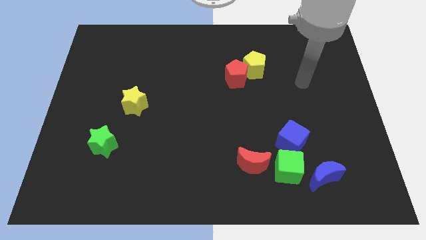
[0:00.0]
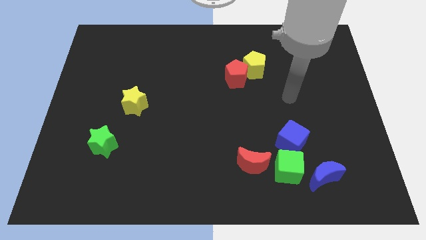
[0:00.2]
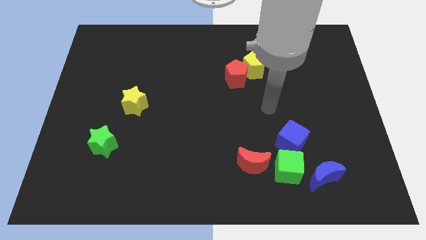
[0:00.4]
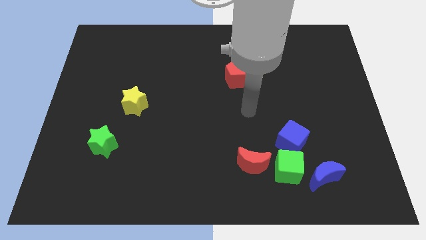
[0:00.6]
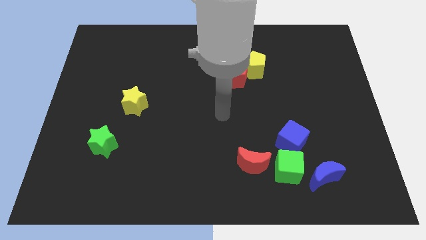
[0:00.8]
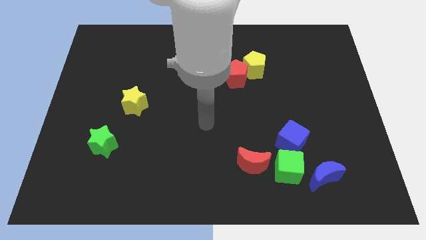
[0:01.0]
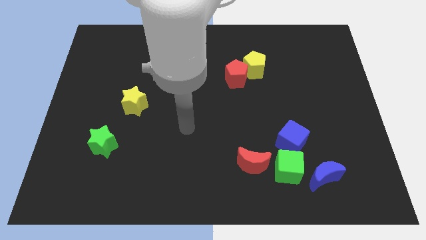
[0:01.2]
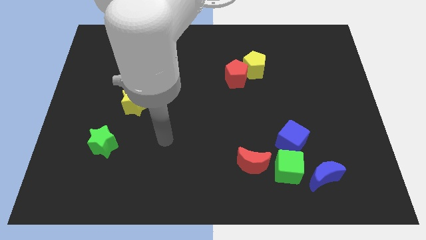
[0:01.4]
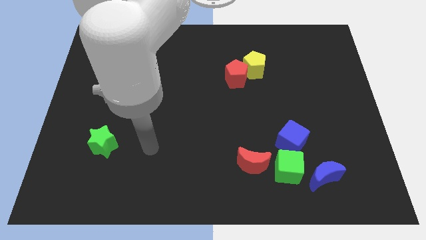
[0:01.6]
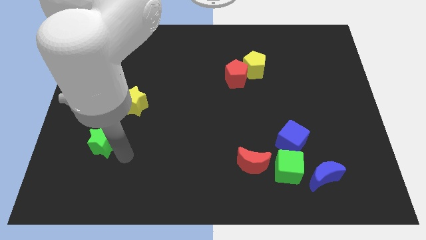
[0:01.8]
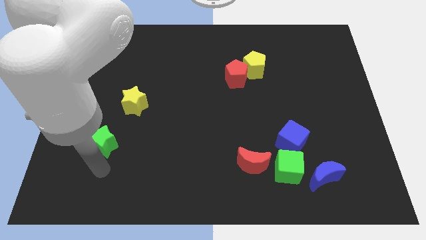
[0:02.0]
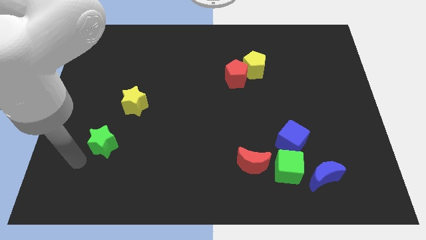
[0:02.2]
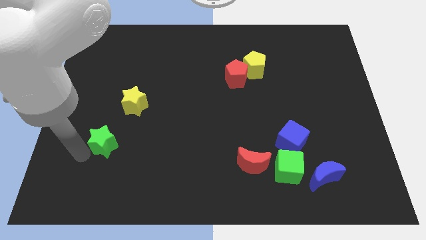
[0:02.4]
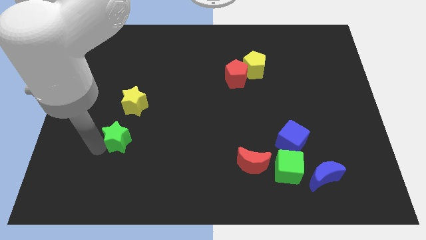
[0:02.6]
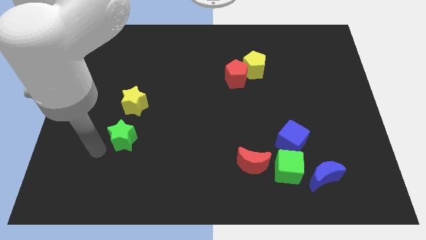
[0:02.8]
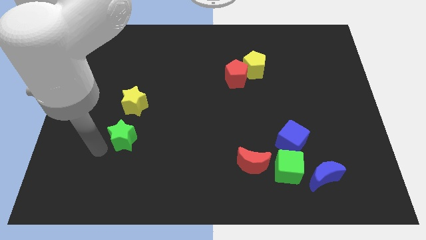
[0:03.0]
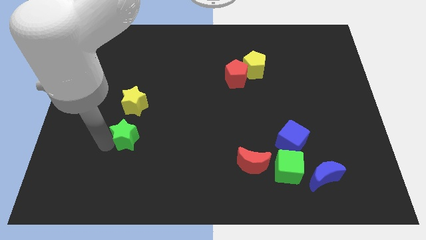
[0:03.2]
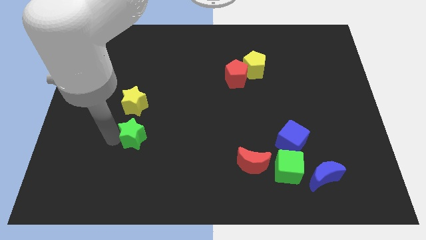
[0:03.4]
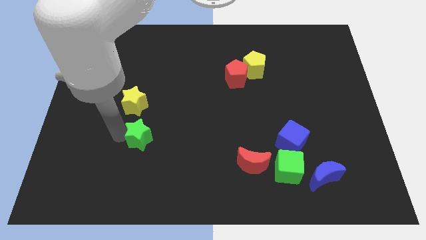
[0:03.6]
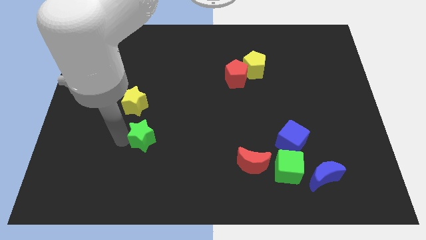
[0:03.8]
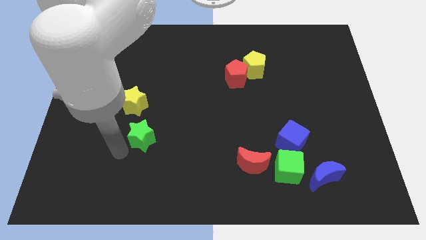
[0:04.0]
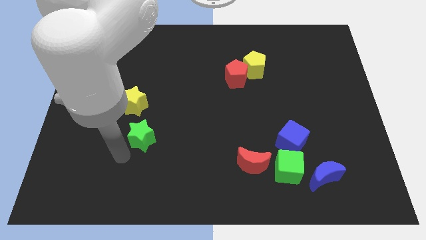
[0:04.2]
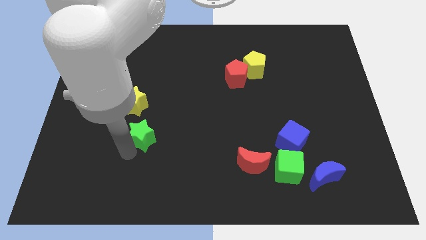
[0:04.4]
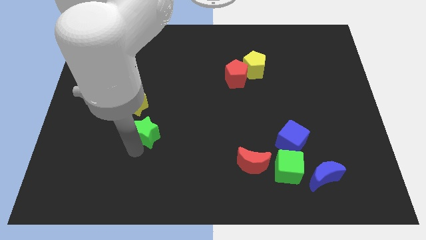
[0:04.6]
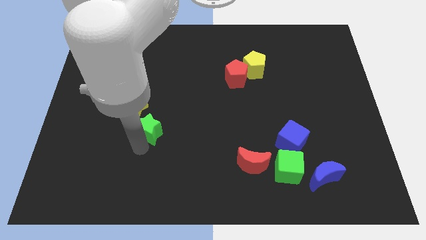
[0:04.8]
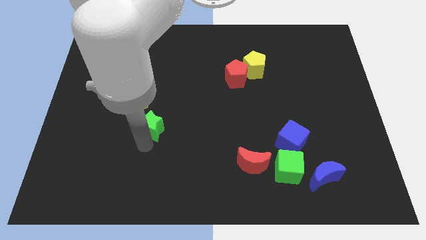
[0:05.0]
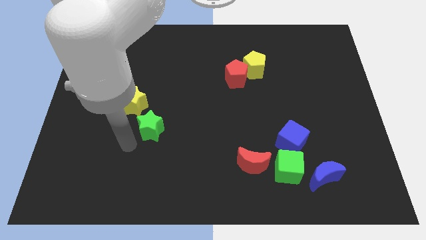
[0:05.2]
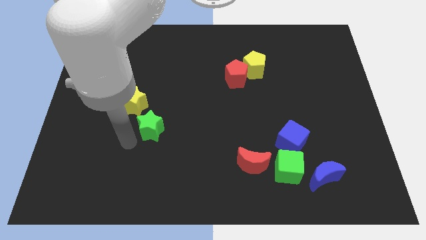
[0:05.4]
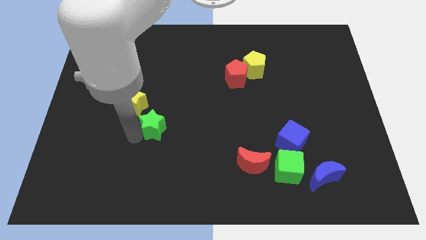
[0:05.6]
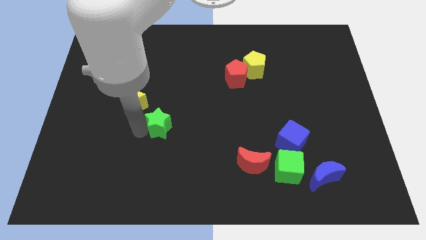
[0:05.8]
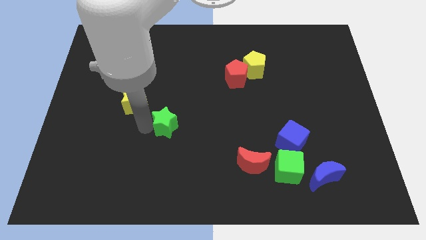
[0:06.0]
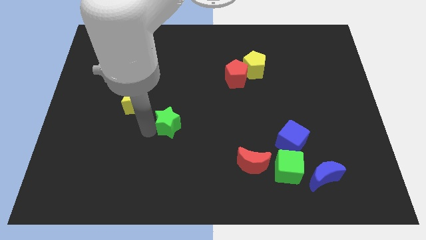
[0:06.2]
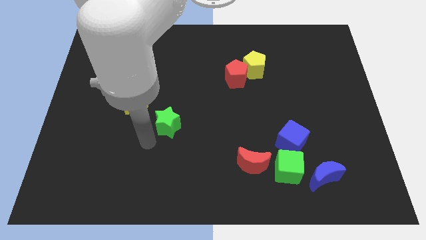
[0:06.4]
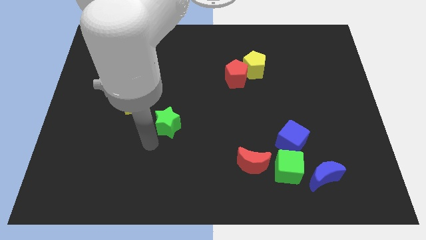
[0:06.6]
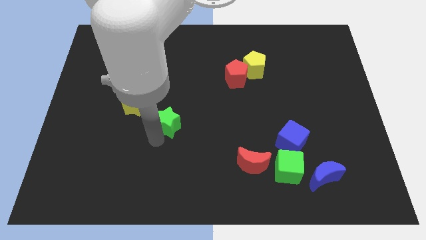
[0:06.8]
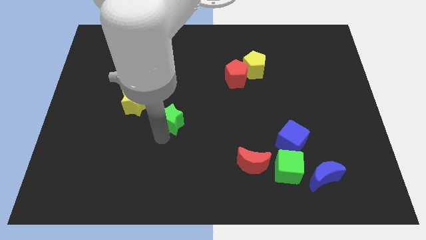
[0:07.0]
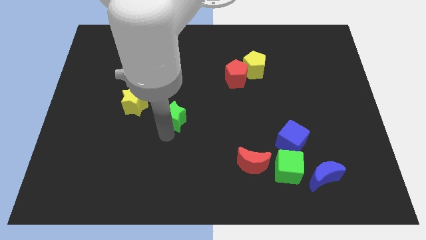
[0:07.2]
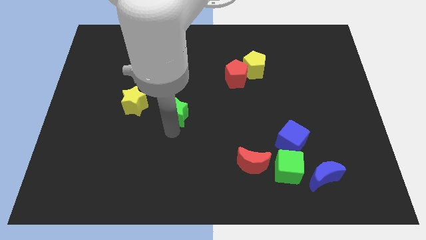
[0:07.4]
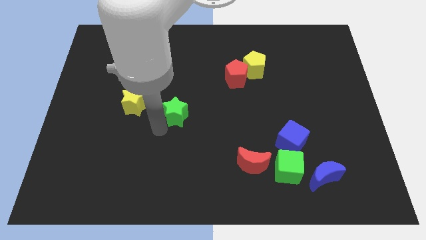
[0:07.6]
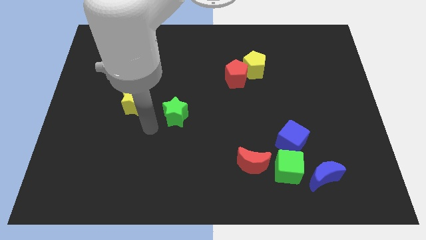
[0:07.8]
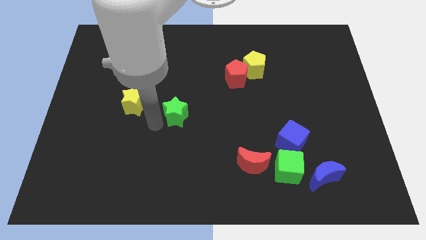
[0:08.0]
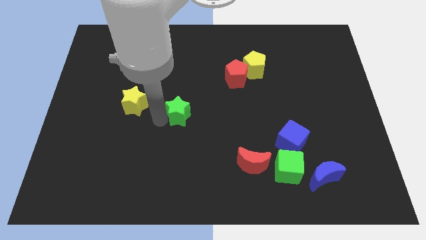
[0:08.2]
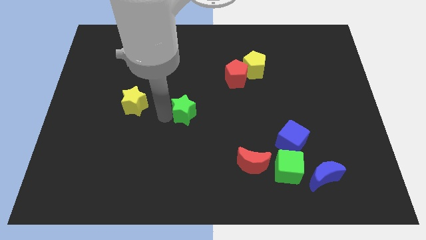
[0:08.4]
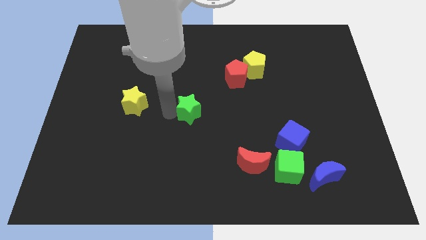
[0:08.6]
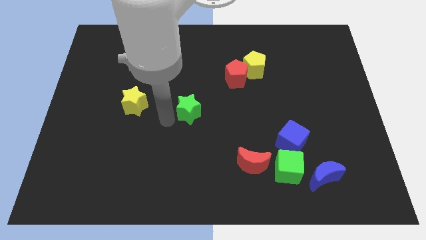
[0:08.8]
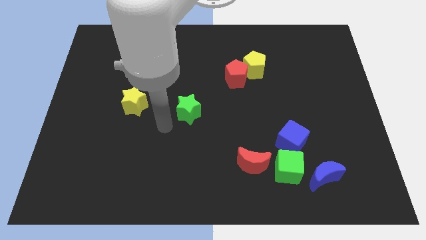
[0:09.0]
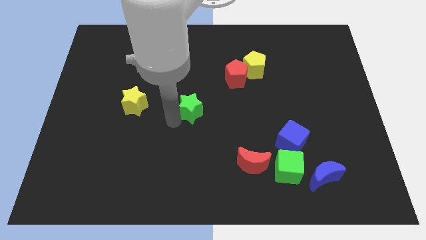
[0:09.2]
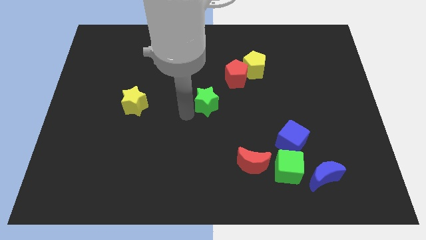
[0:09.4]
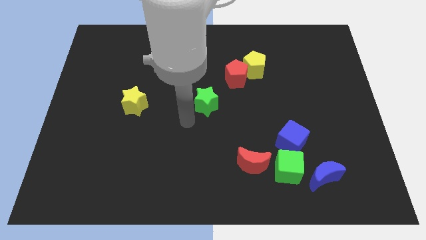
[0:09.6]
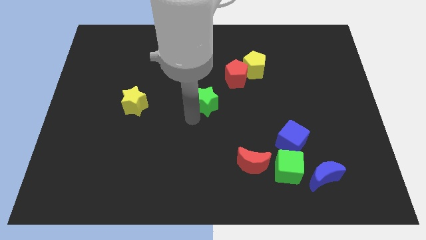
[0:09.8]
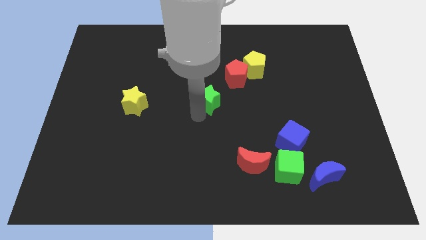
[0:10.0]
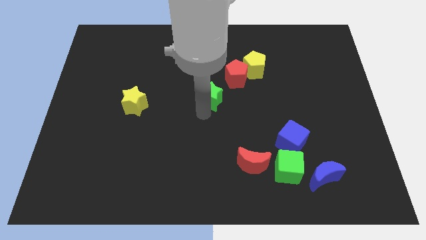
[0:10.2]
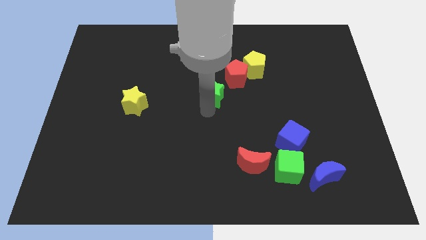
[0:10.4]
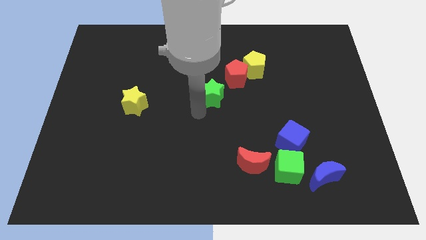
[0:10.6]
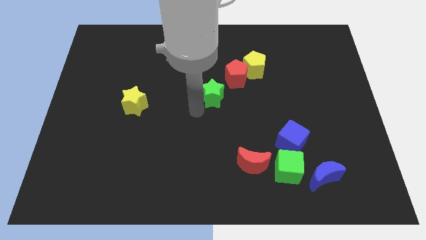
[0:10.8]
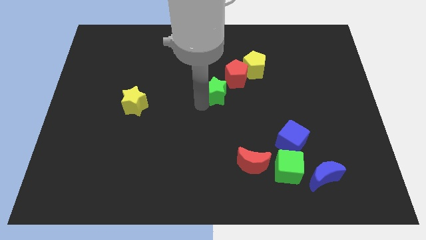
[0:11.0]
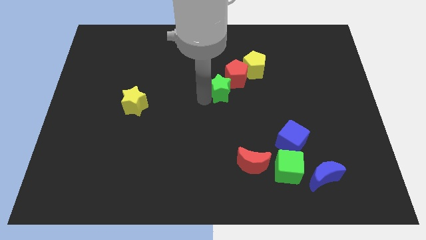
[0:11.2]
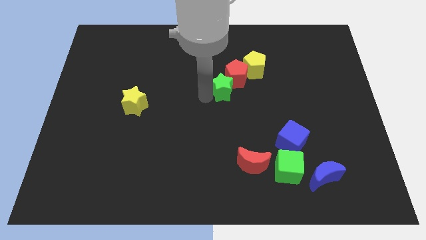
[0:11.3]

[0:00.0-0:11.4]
slide the green star close to the red pentagon

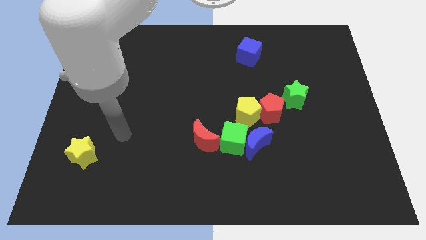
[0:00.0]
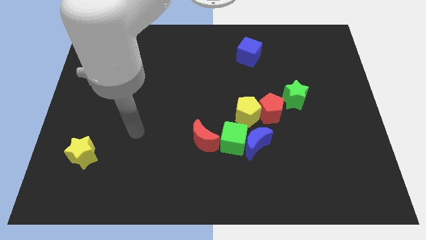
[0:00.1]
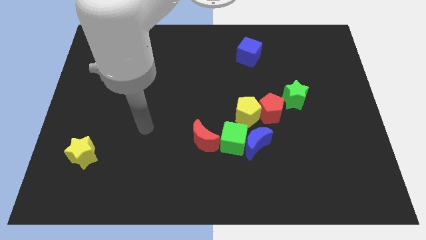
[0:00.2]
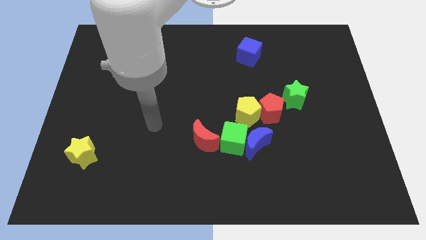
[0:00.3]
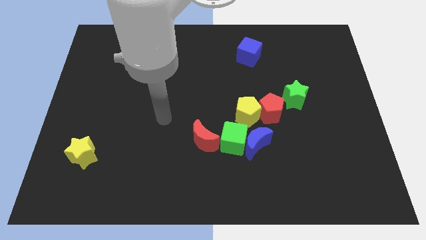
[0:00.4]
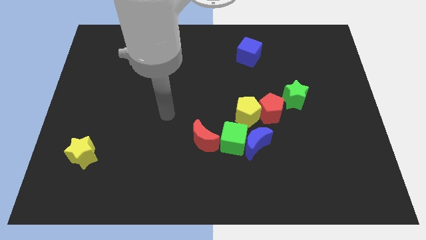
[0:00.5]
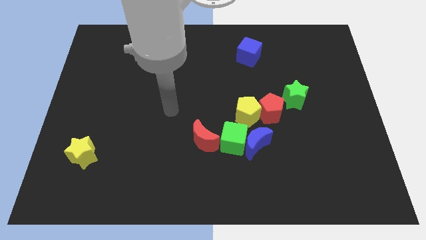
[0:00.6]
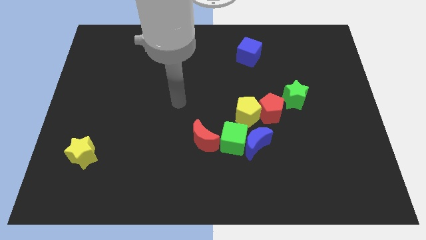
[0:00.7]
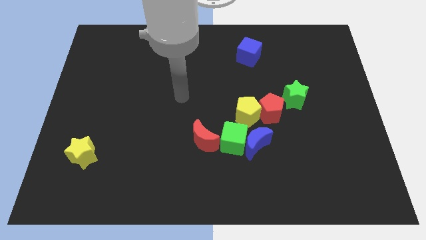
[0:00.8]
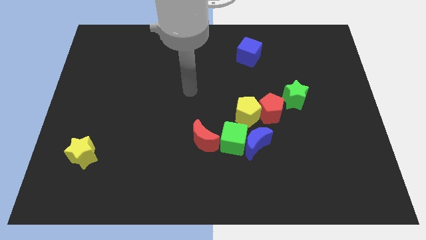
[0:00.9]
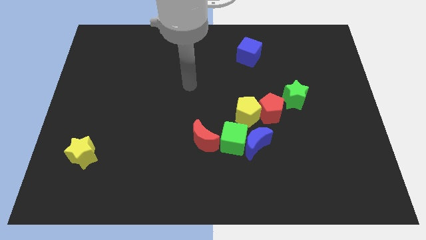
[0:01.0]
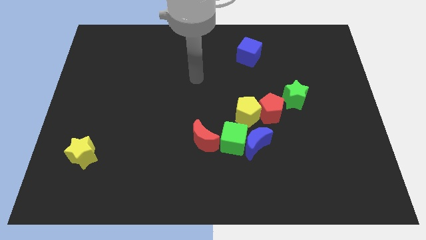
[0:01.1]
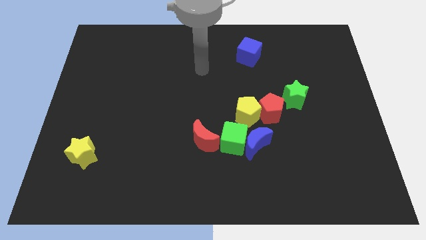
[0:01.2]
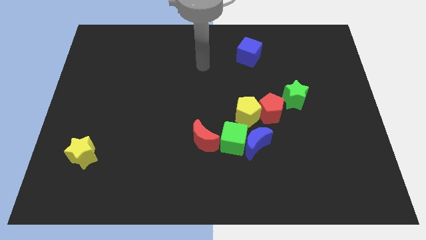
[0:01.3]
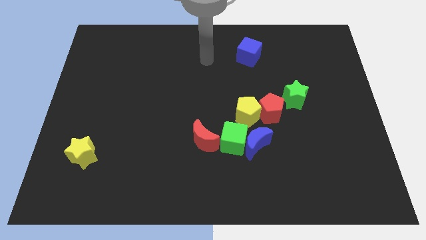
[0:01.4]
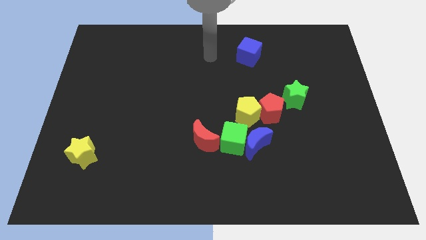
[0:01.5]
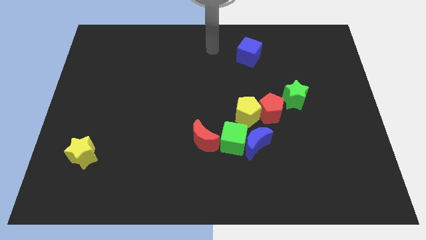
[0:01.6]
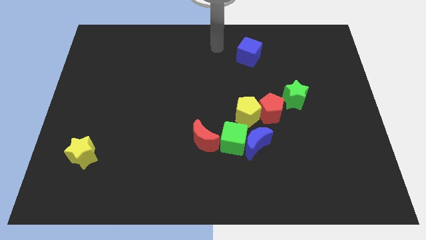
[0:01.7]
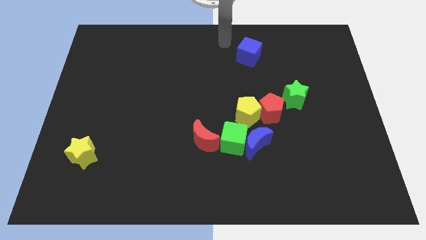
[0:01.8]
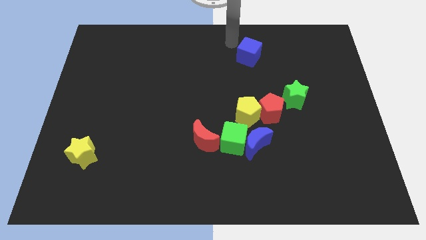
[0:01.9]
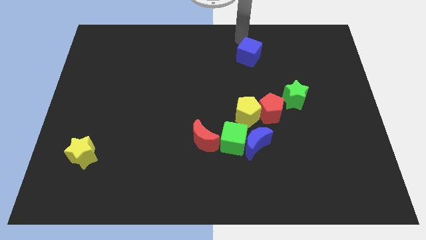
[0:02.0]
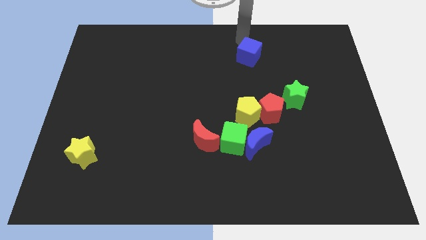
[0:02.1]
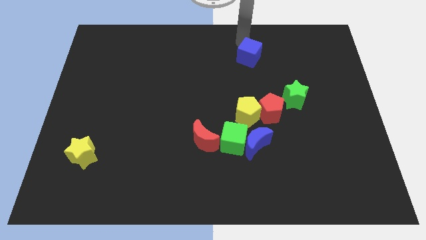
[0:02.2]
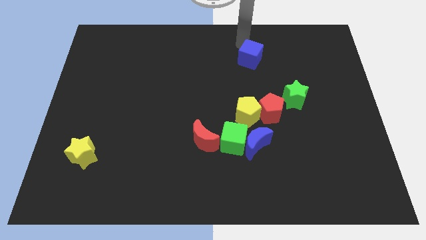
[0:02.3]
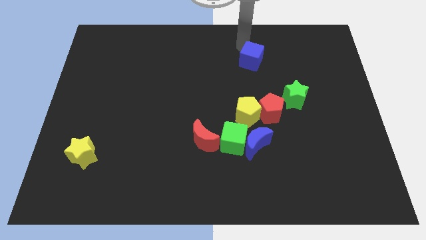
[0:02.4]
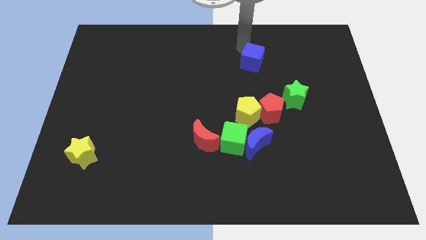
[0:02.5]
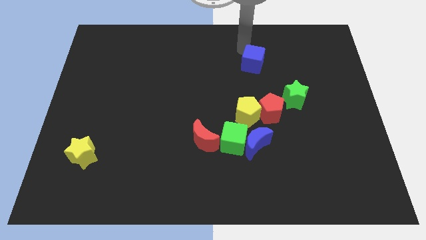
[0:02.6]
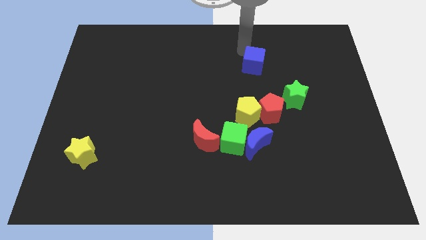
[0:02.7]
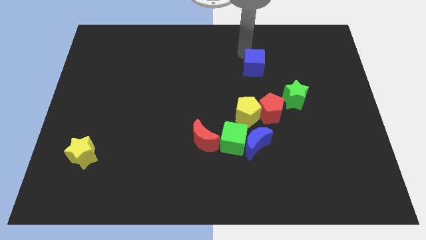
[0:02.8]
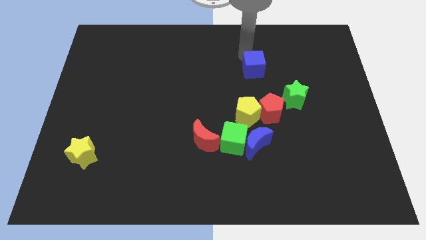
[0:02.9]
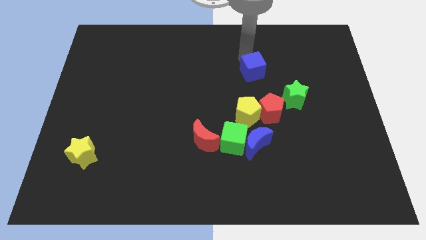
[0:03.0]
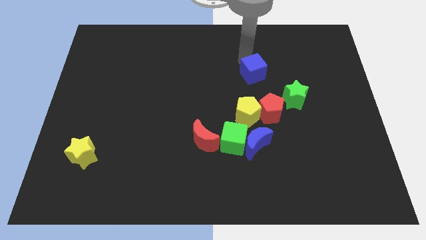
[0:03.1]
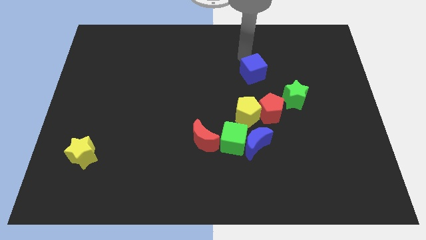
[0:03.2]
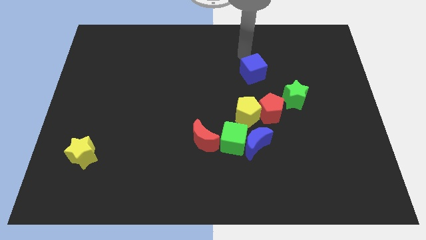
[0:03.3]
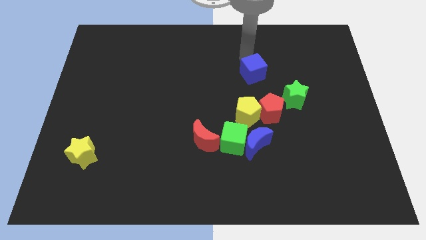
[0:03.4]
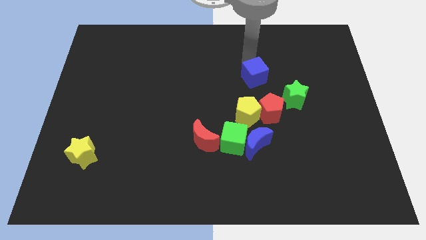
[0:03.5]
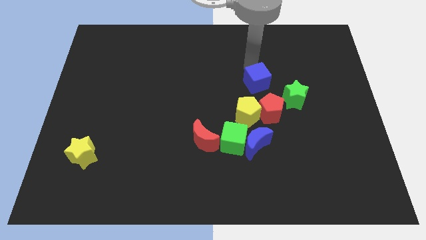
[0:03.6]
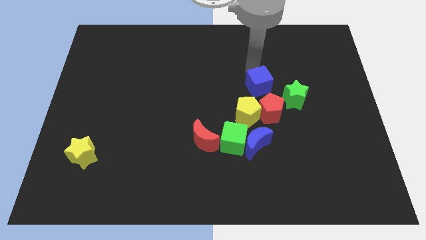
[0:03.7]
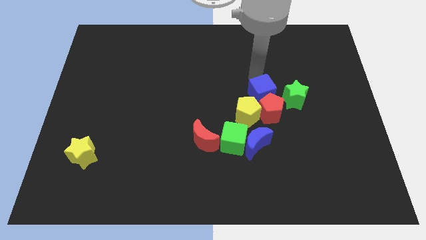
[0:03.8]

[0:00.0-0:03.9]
push the blue cube towards the red pentagon
